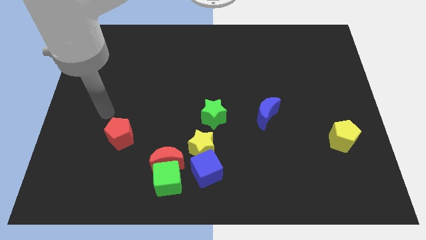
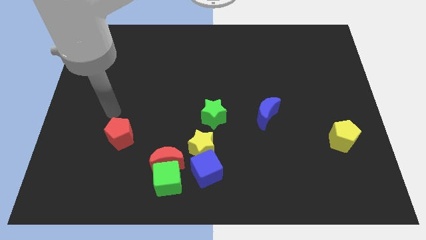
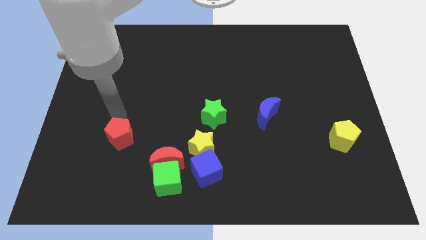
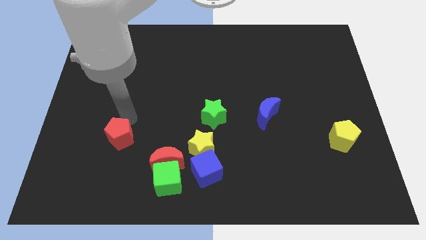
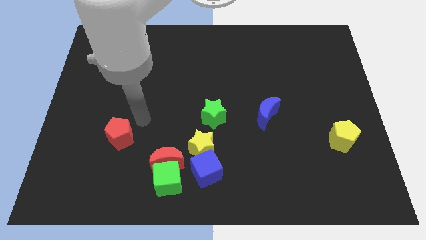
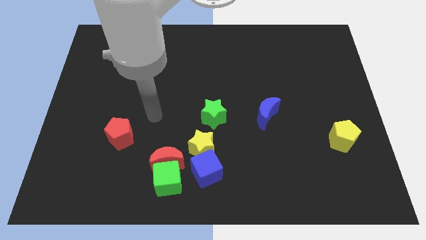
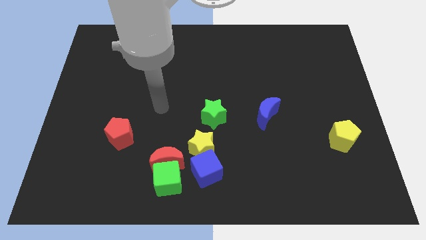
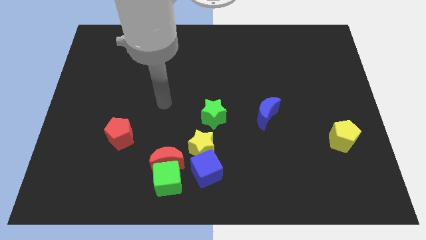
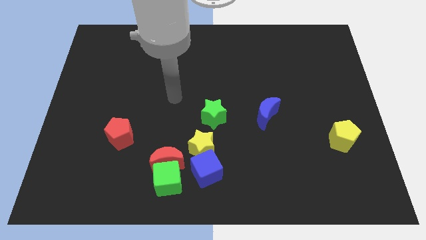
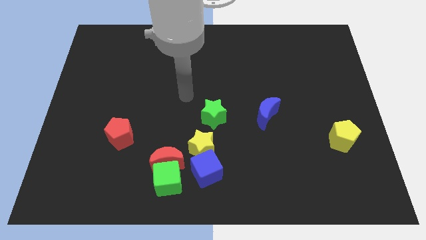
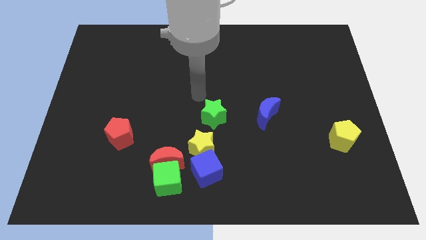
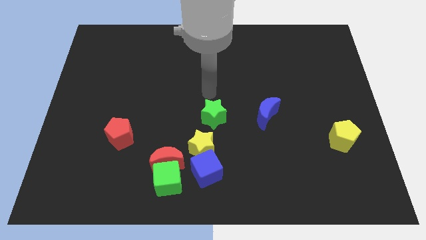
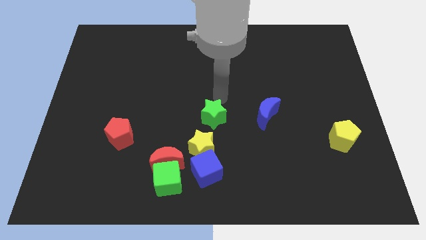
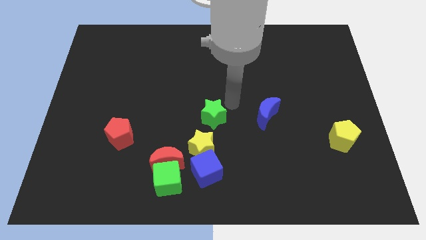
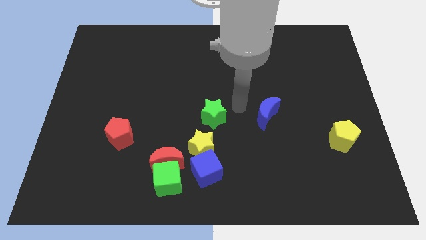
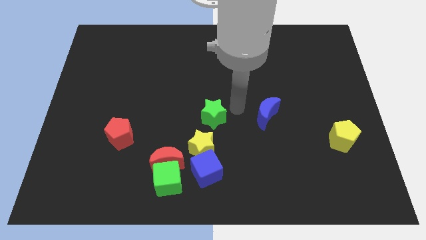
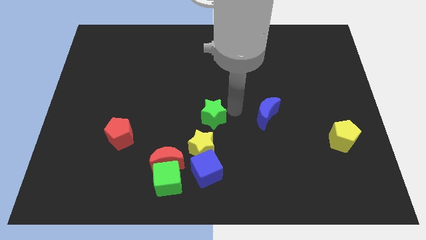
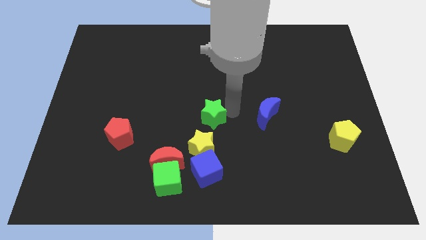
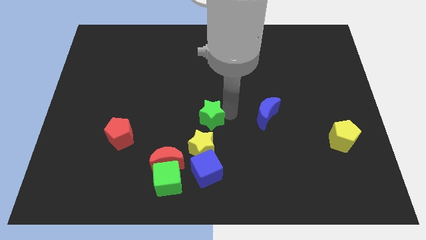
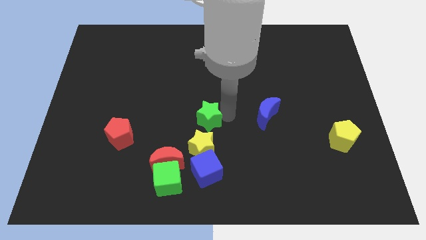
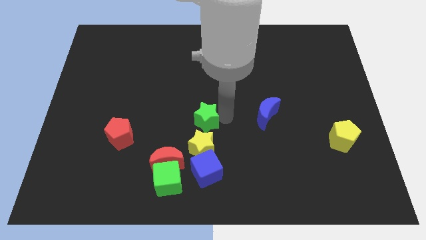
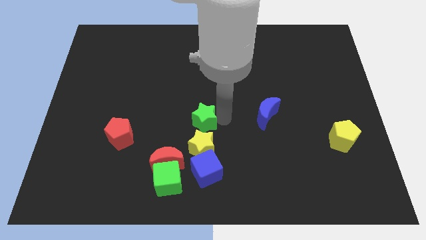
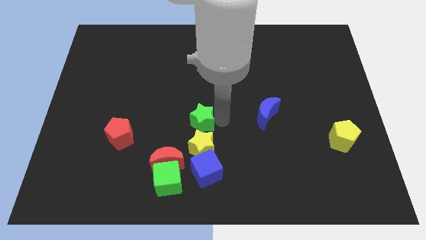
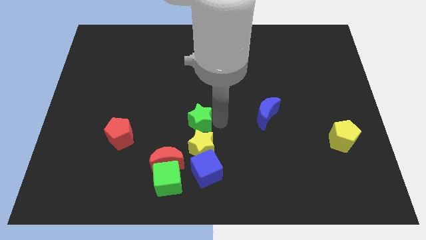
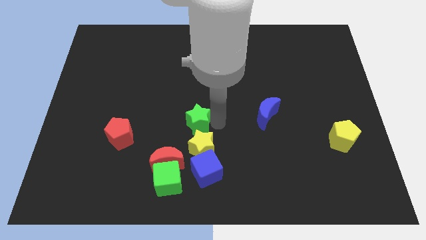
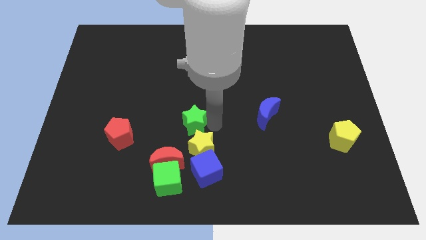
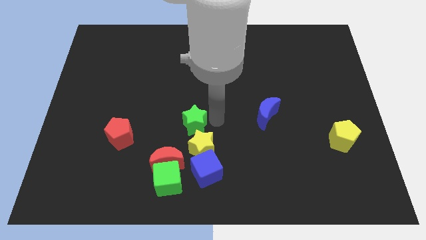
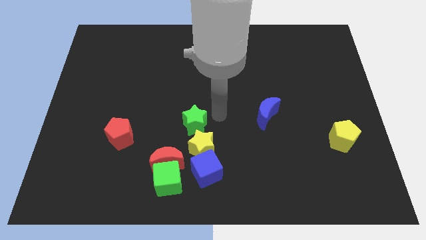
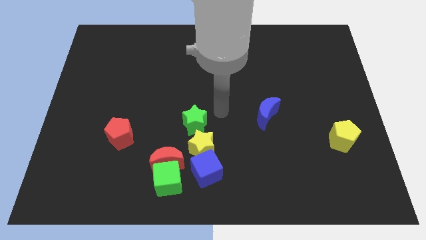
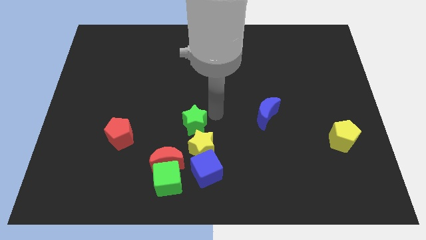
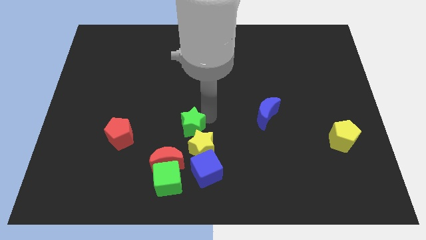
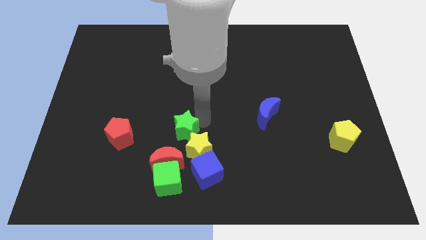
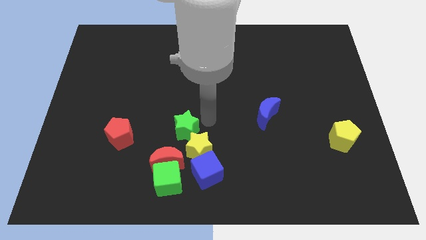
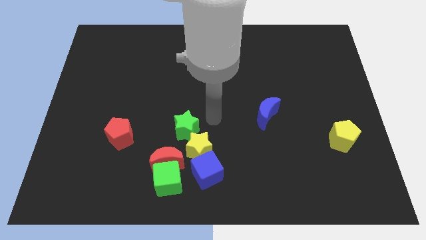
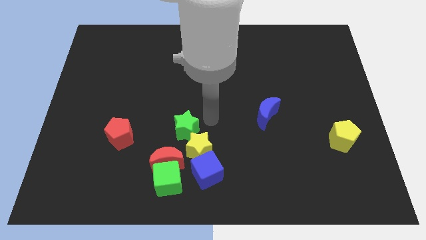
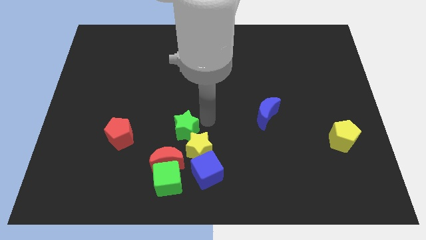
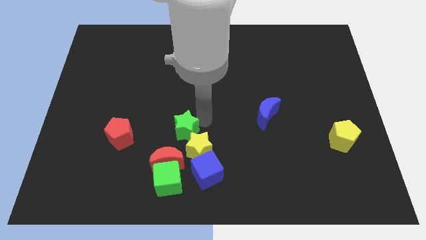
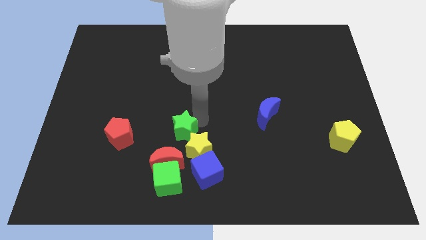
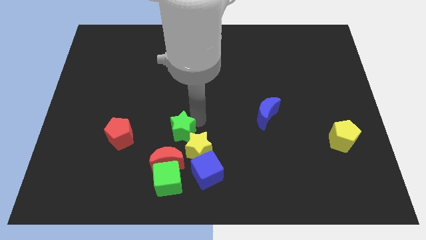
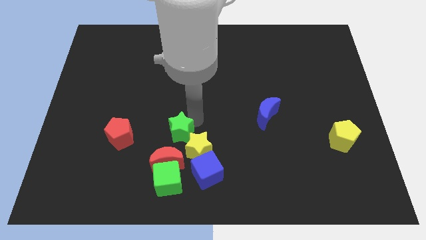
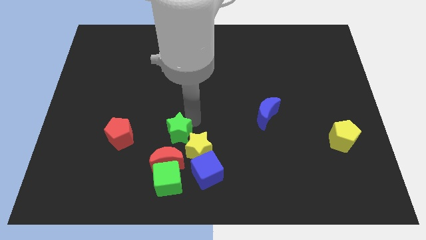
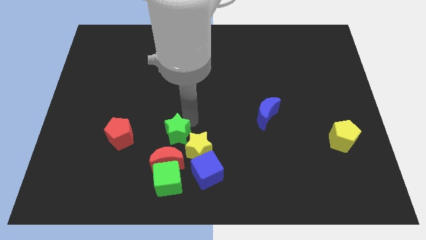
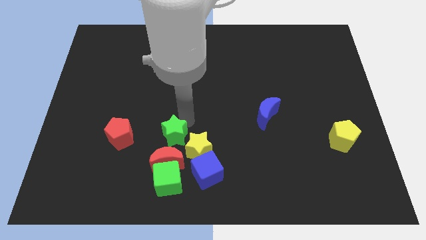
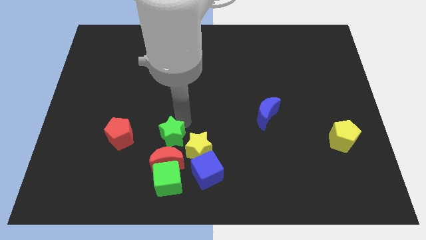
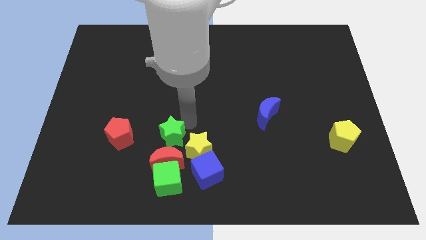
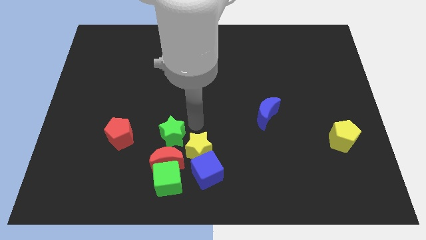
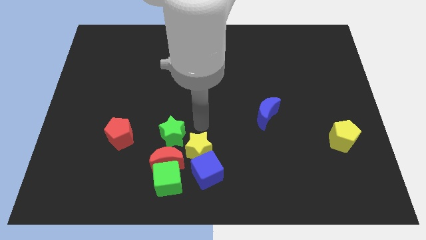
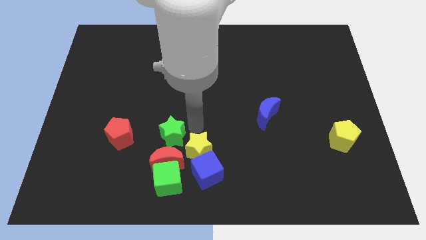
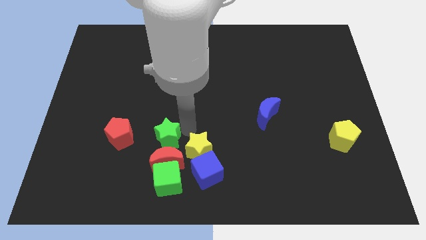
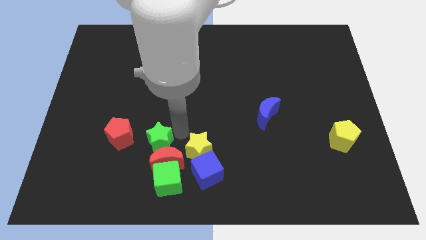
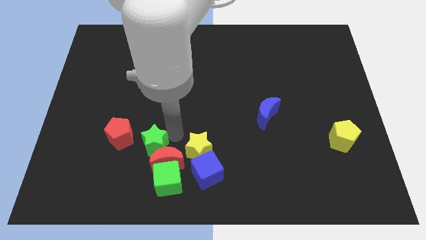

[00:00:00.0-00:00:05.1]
move the green star left of the red moon

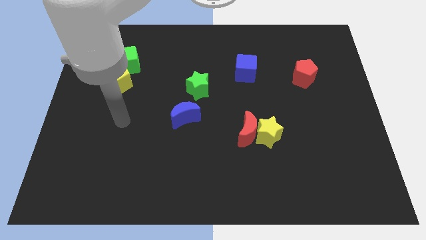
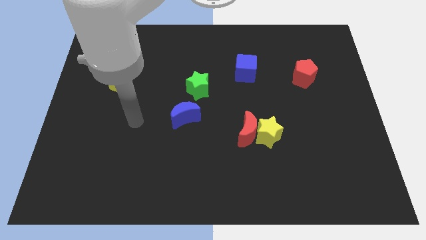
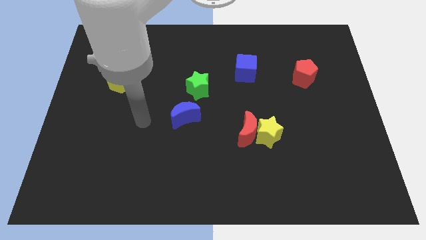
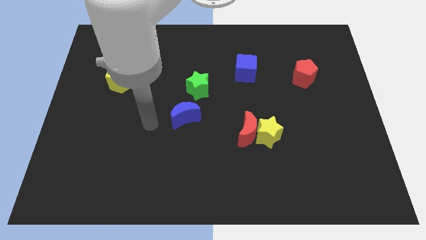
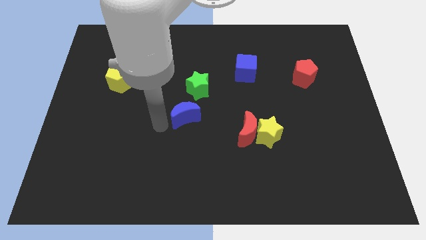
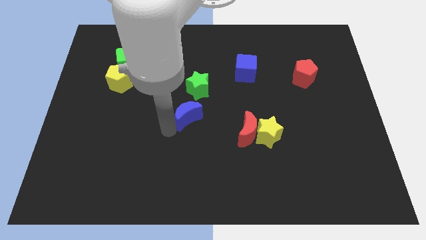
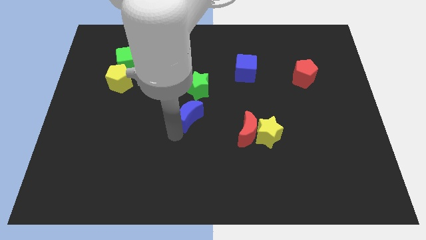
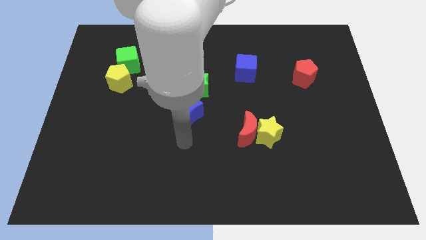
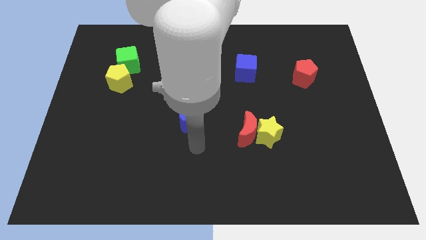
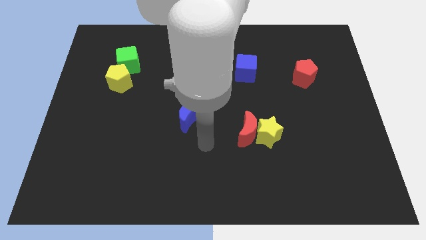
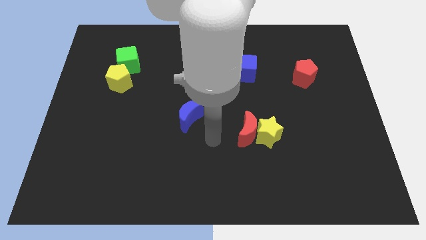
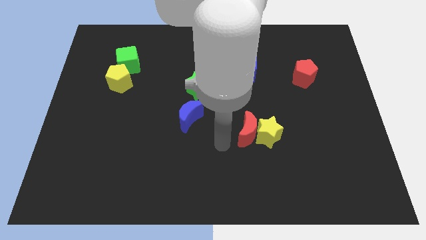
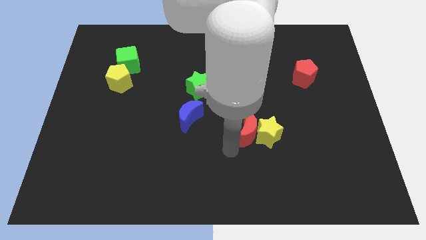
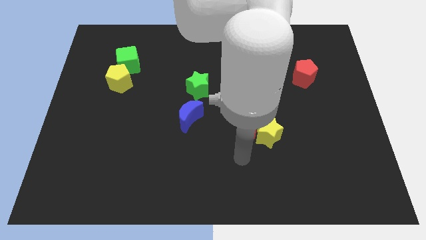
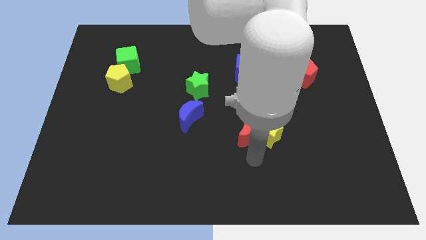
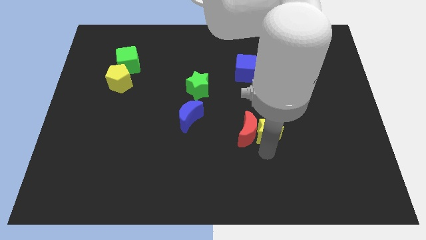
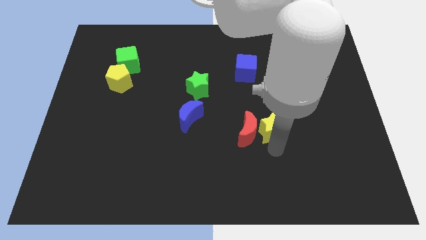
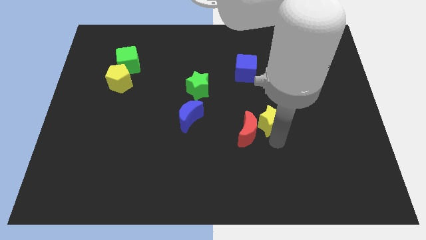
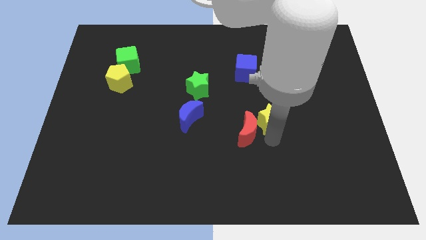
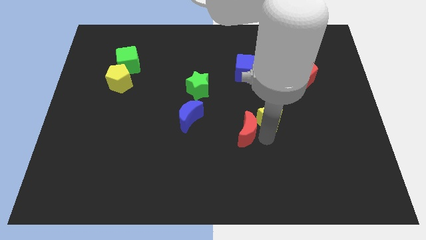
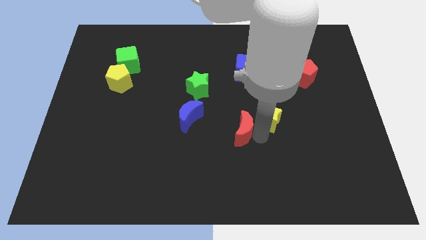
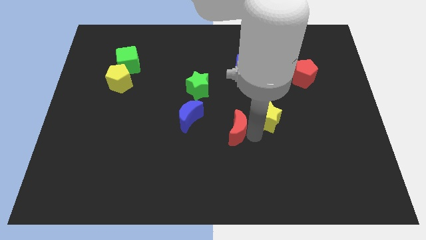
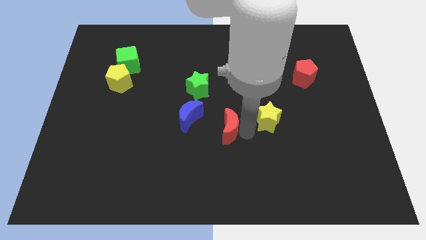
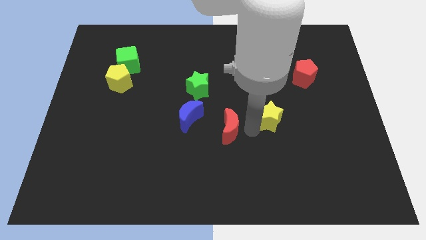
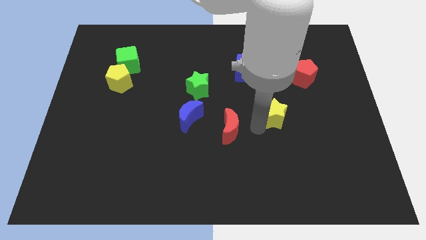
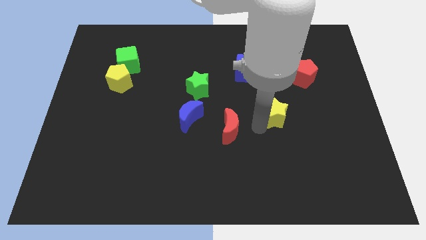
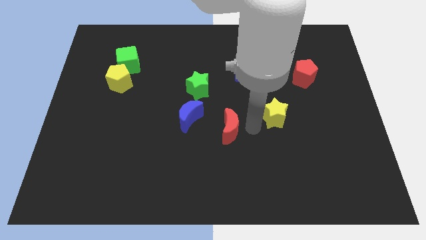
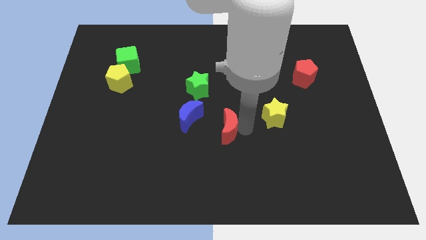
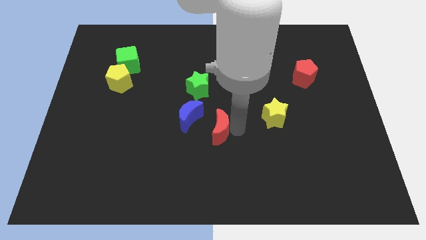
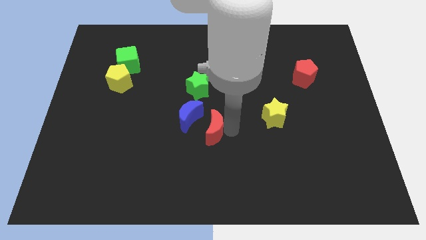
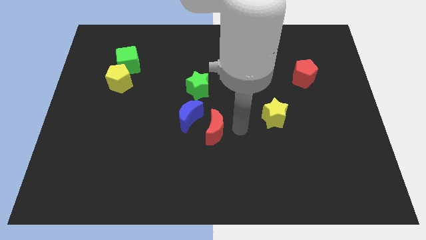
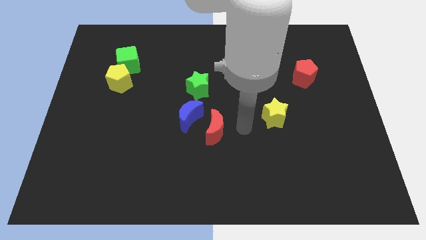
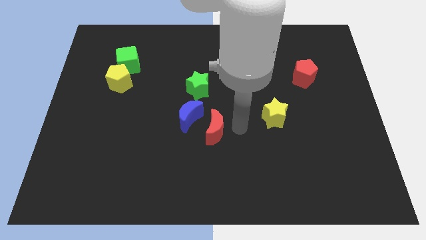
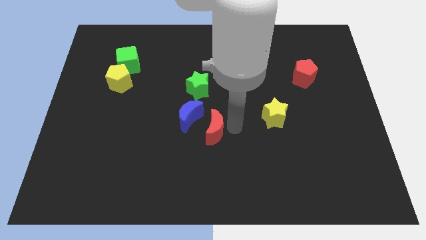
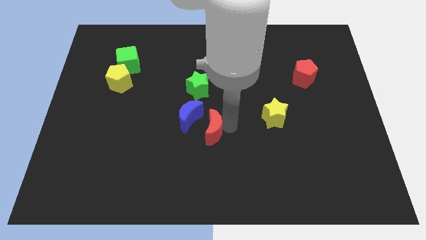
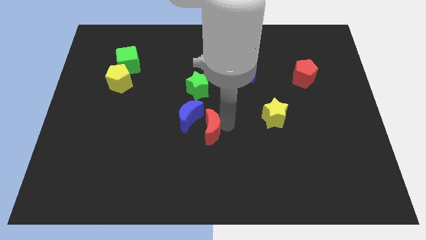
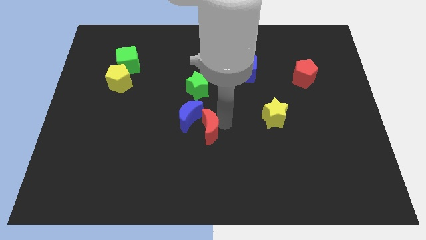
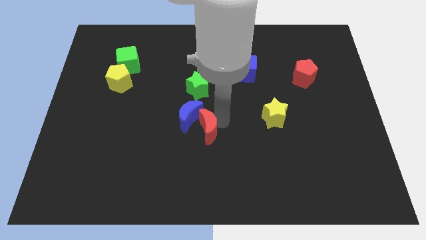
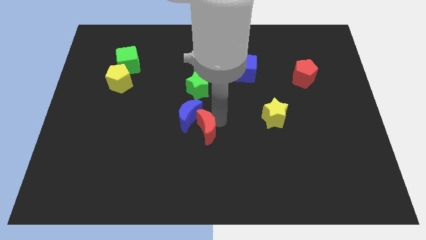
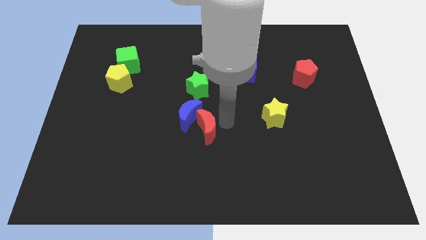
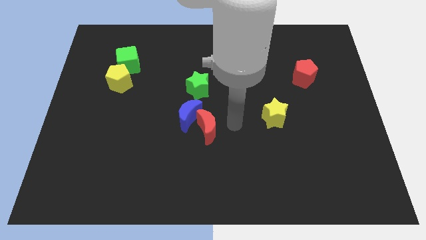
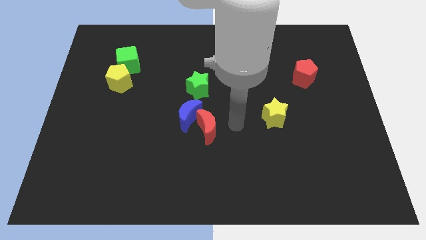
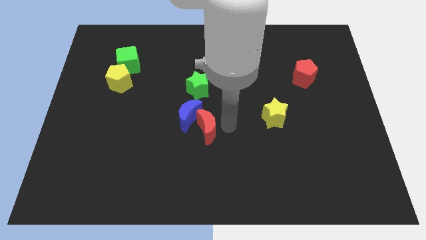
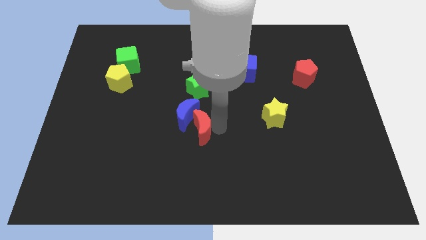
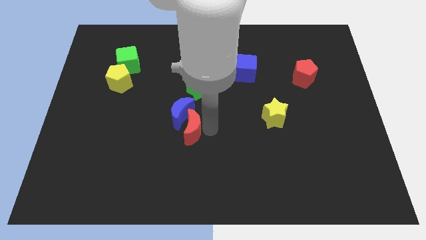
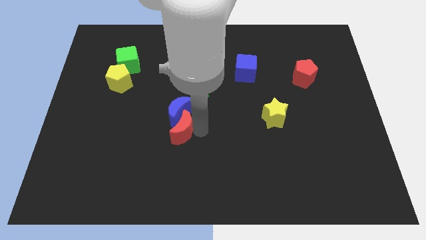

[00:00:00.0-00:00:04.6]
move the red moon diagonally down and to the left of the blue moon
